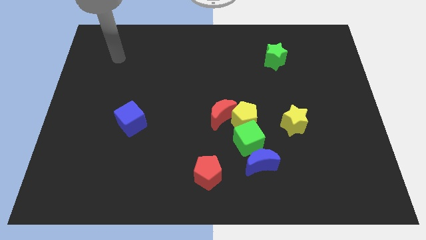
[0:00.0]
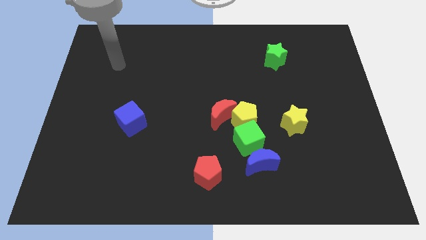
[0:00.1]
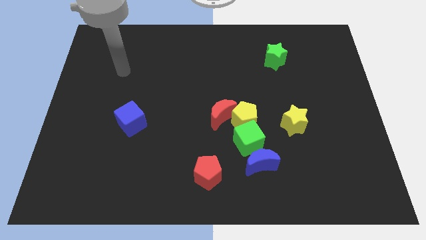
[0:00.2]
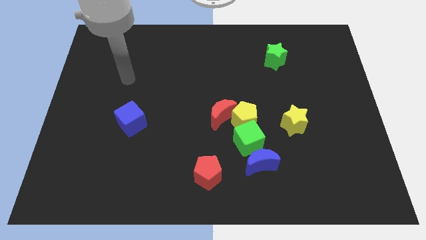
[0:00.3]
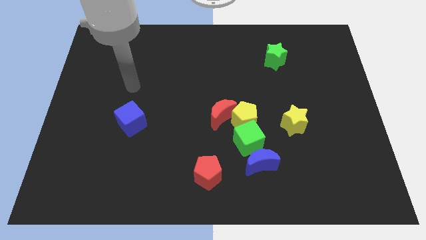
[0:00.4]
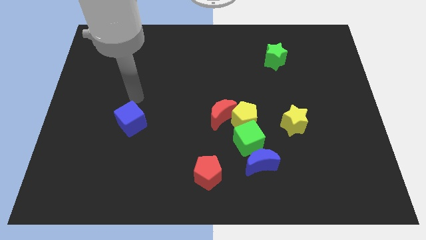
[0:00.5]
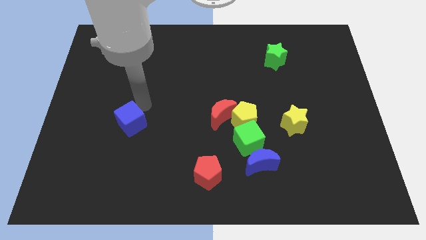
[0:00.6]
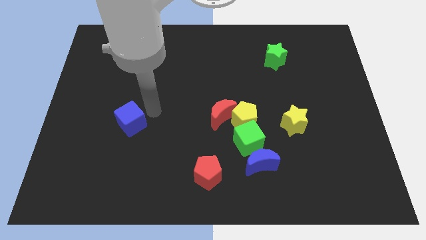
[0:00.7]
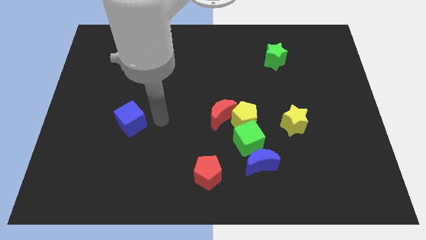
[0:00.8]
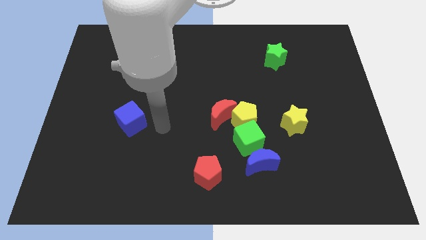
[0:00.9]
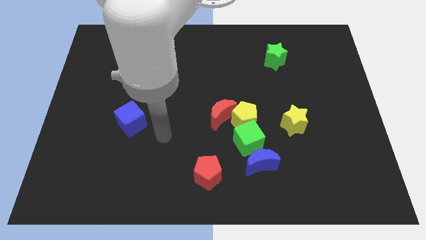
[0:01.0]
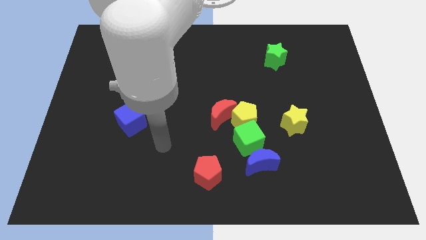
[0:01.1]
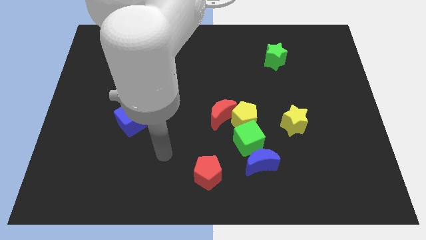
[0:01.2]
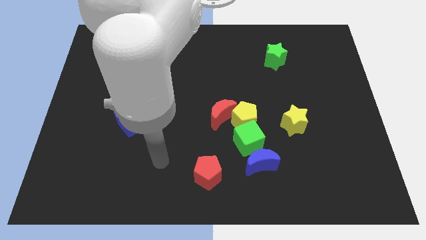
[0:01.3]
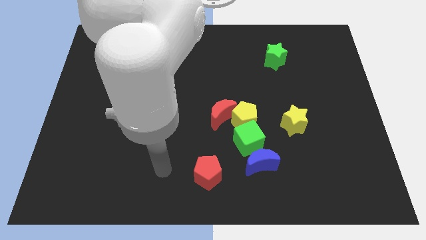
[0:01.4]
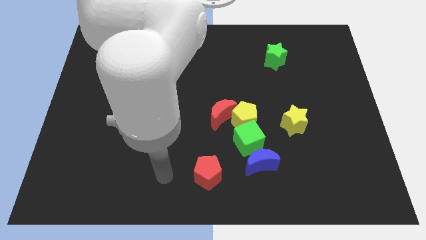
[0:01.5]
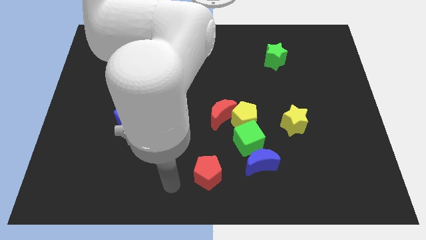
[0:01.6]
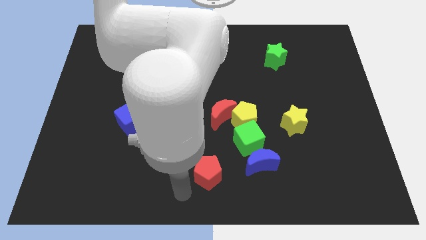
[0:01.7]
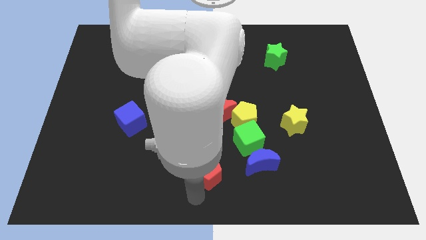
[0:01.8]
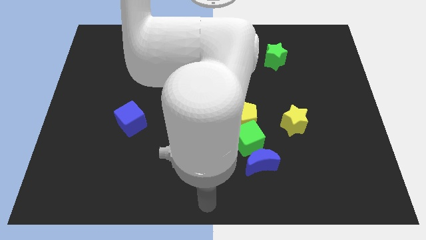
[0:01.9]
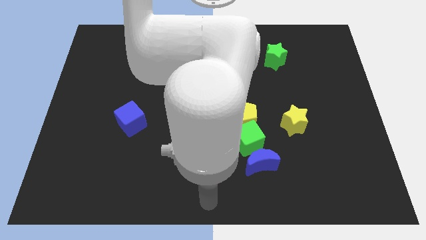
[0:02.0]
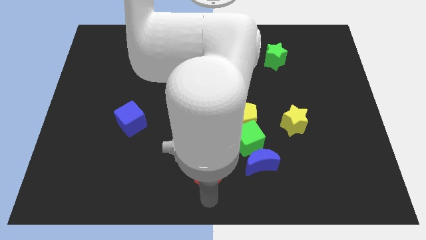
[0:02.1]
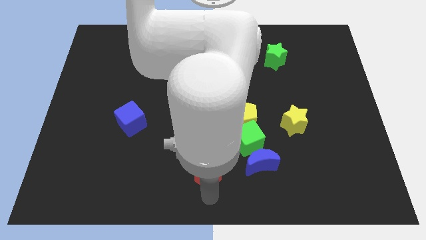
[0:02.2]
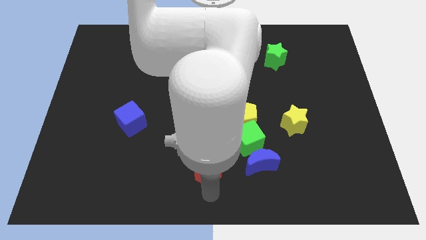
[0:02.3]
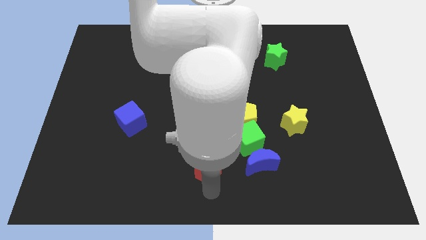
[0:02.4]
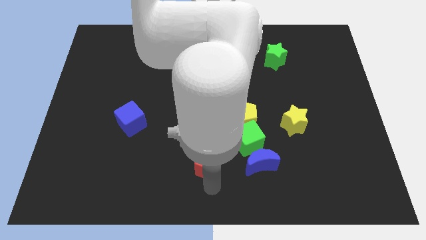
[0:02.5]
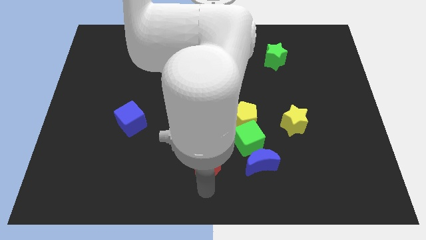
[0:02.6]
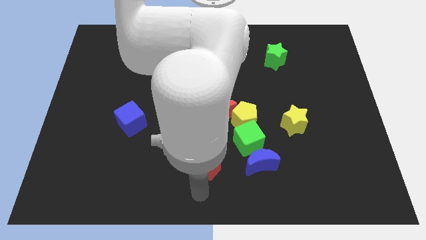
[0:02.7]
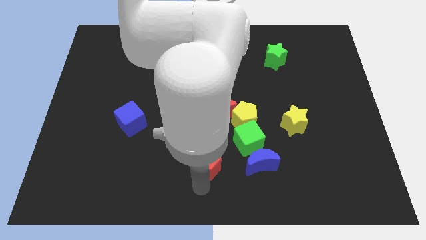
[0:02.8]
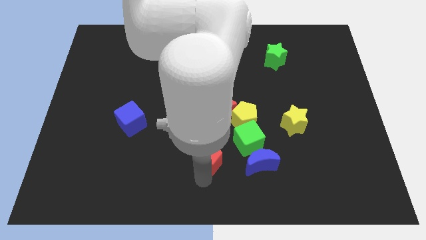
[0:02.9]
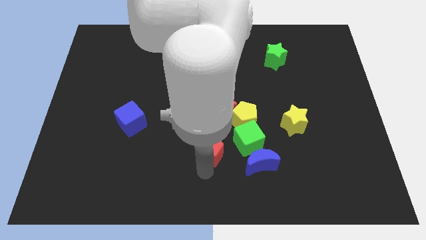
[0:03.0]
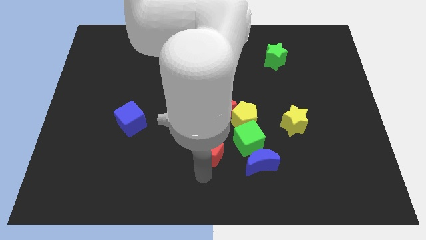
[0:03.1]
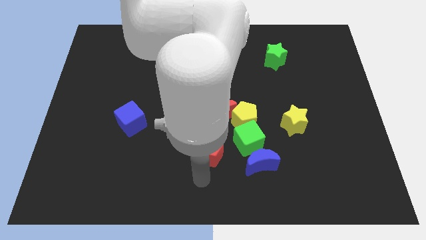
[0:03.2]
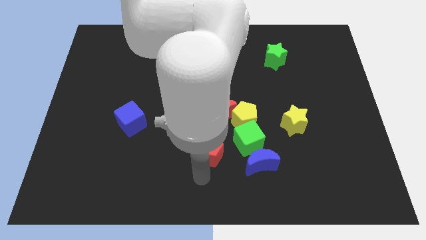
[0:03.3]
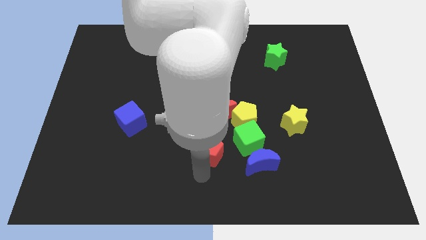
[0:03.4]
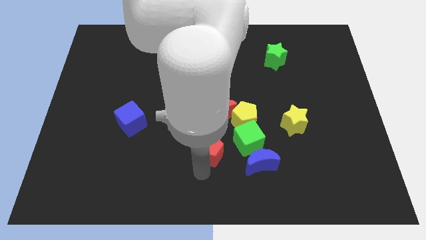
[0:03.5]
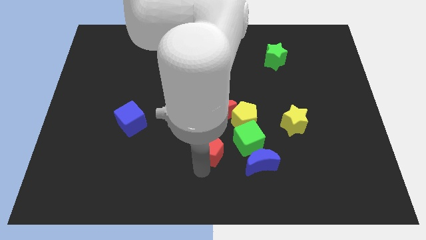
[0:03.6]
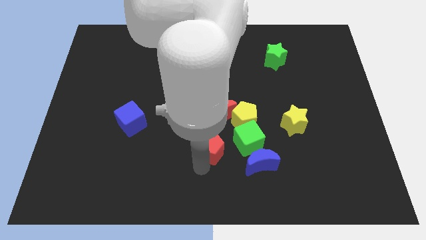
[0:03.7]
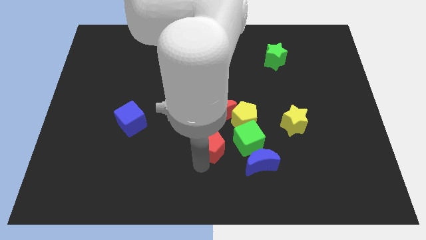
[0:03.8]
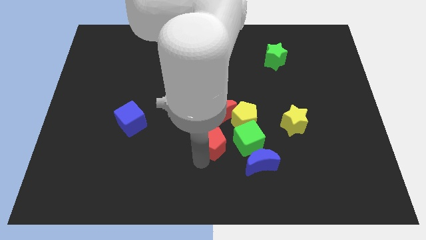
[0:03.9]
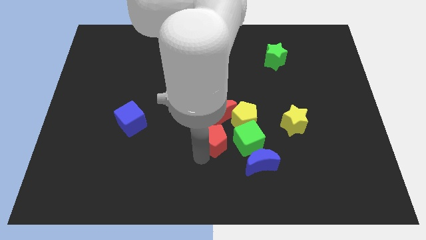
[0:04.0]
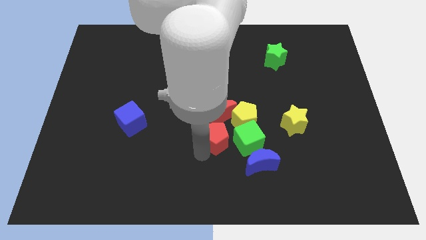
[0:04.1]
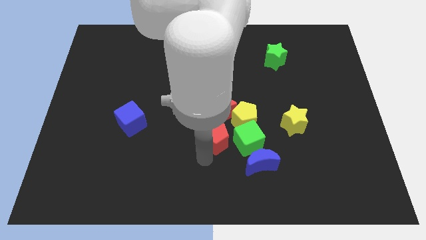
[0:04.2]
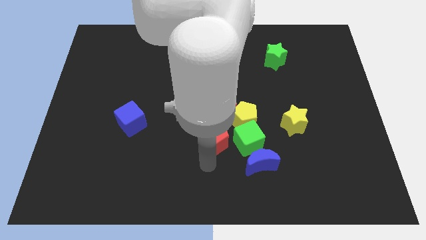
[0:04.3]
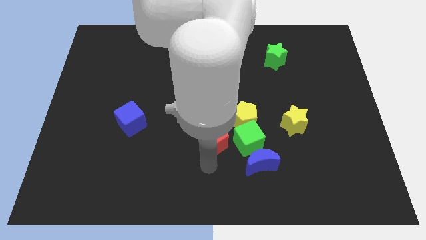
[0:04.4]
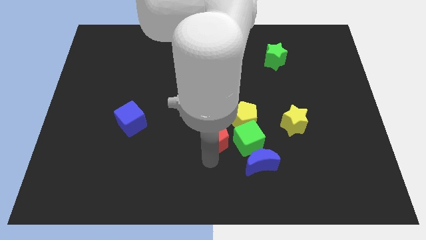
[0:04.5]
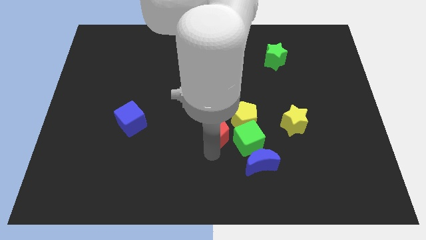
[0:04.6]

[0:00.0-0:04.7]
move the red pentagon to the red moon

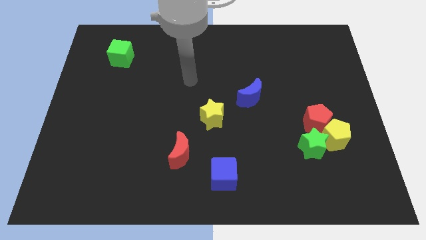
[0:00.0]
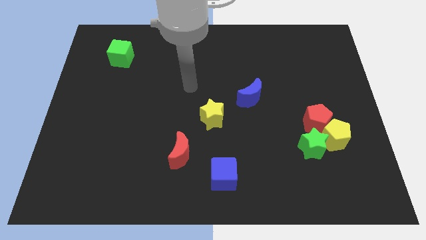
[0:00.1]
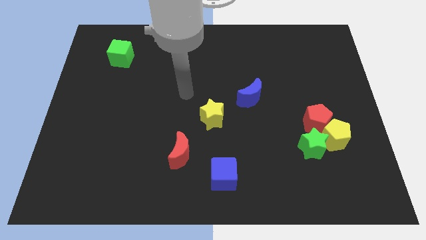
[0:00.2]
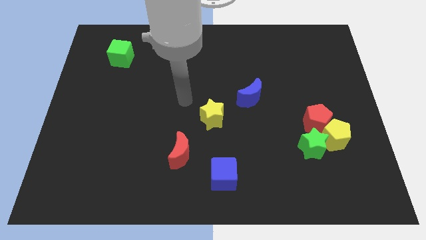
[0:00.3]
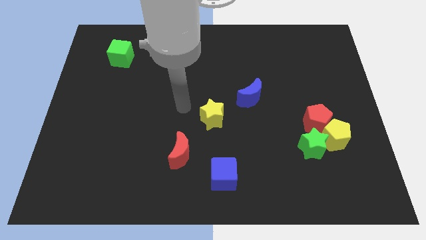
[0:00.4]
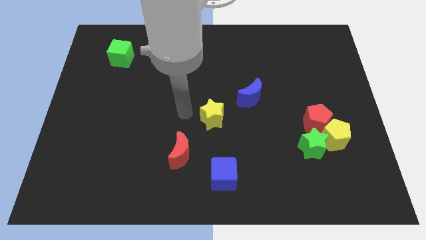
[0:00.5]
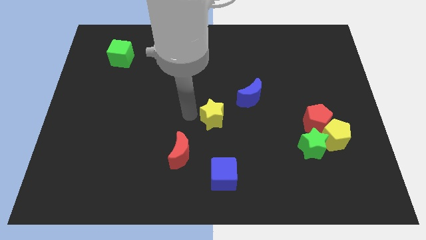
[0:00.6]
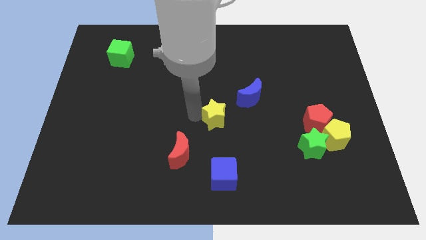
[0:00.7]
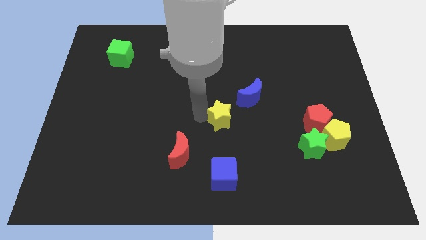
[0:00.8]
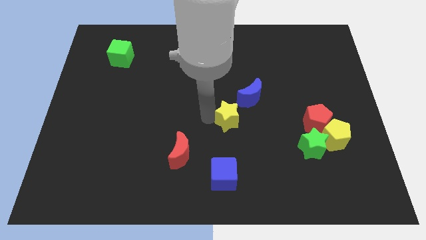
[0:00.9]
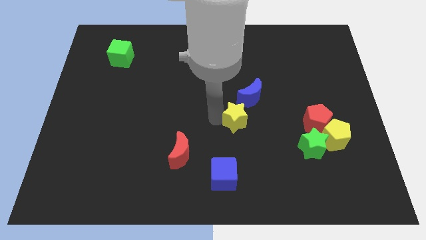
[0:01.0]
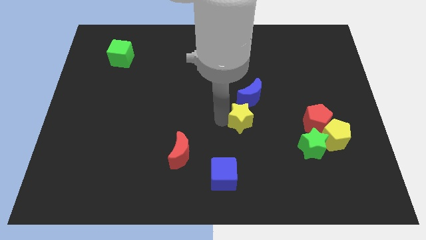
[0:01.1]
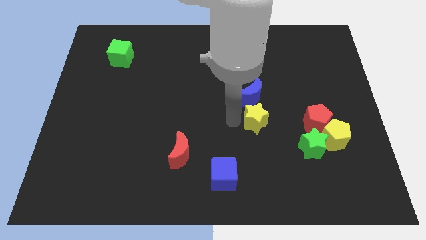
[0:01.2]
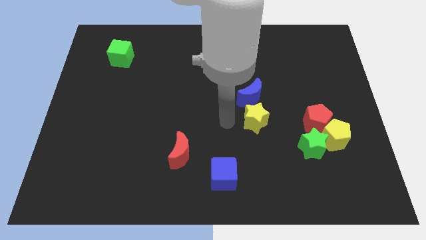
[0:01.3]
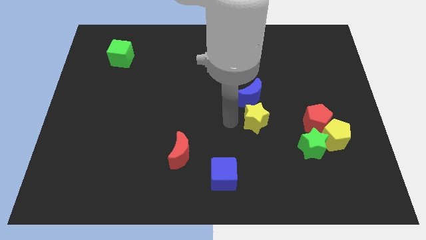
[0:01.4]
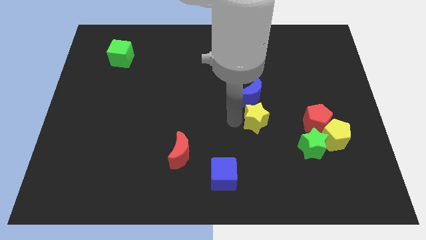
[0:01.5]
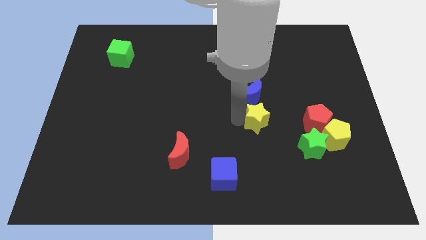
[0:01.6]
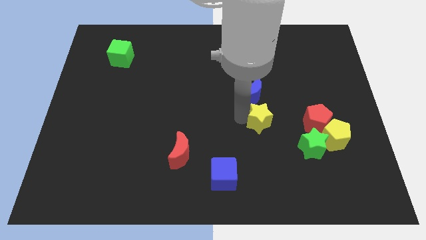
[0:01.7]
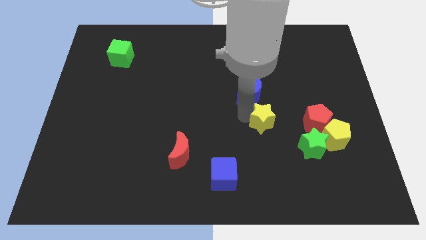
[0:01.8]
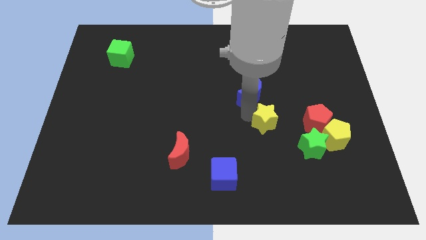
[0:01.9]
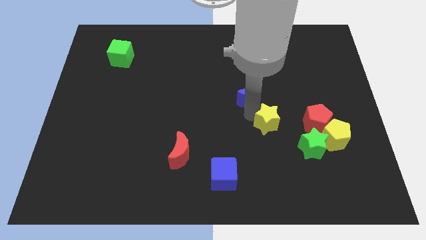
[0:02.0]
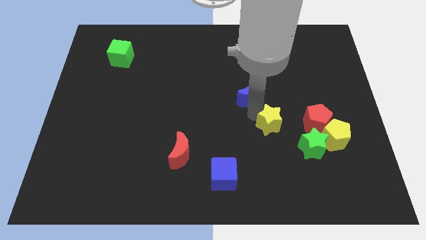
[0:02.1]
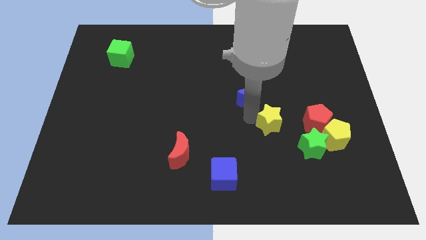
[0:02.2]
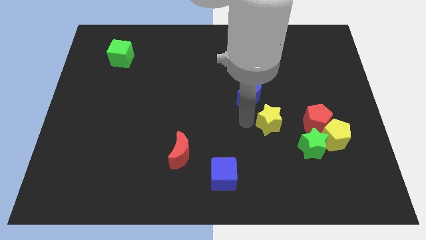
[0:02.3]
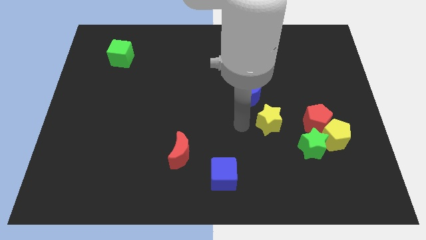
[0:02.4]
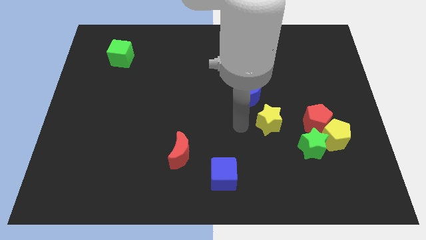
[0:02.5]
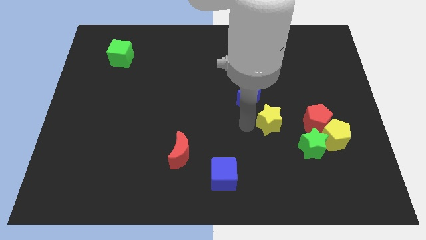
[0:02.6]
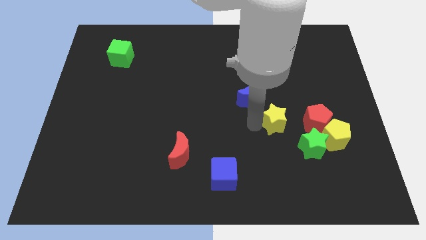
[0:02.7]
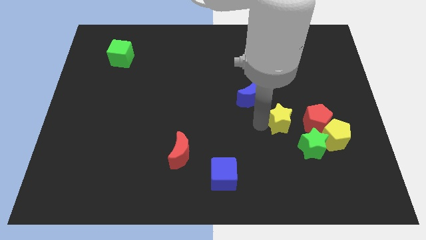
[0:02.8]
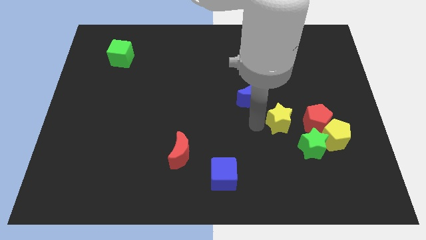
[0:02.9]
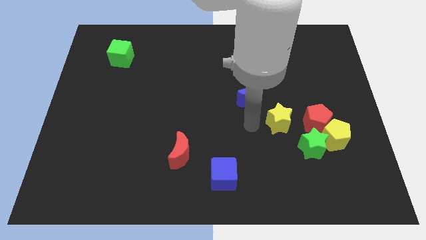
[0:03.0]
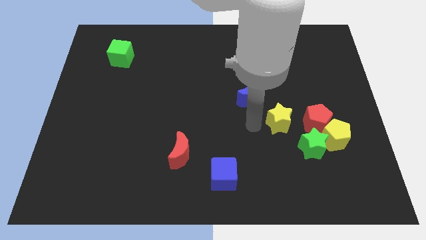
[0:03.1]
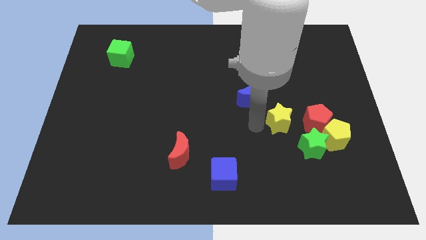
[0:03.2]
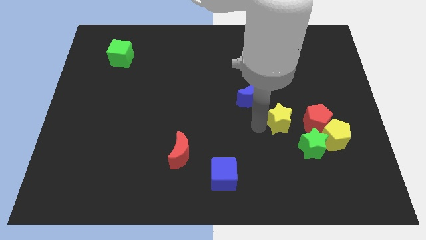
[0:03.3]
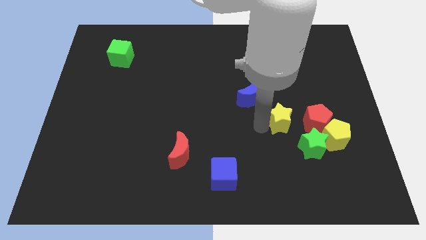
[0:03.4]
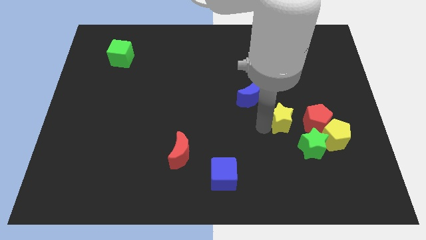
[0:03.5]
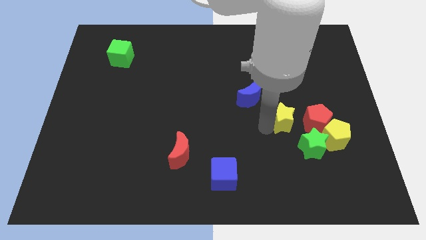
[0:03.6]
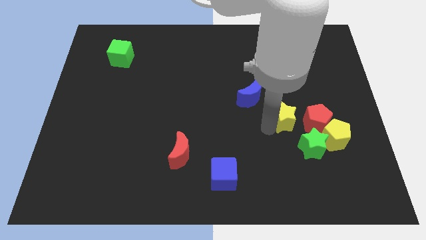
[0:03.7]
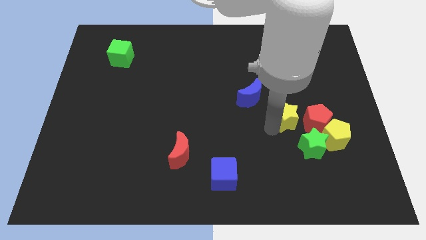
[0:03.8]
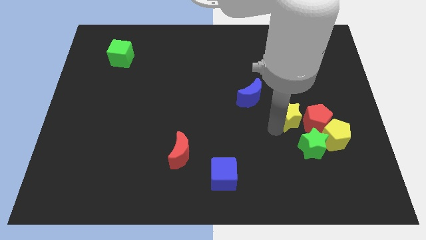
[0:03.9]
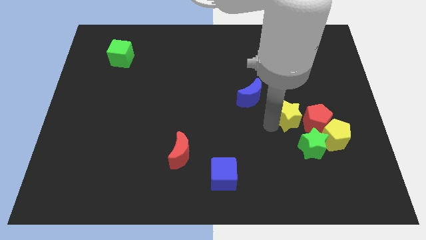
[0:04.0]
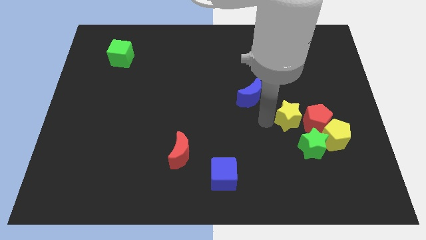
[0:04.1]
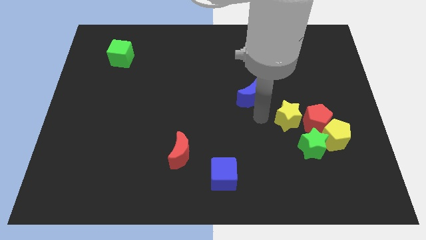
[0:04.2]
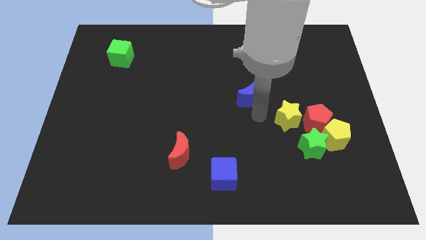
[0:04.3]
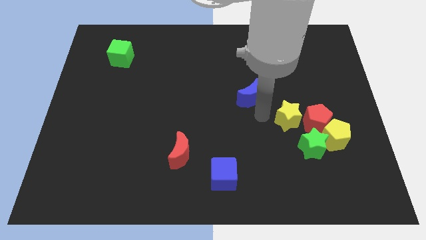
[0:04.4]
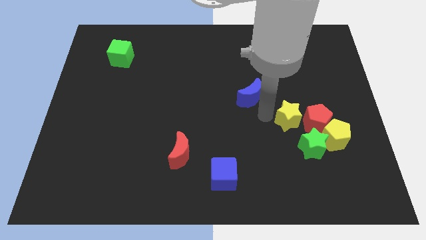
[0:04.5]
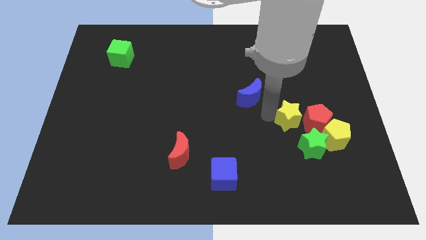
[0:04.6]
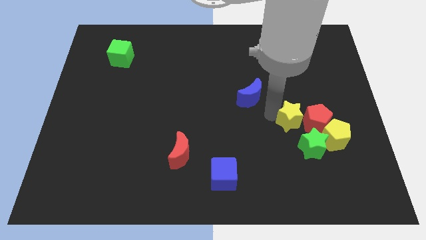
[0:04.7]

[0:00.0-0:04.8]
move the yellow star to the red pentagon
